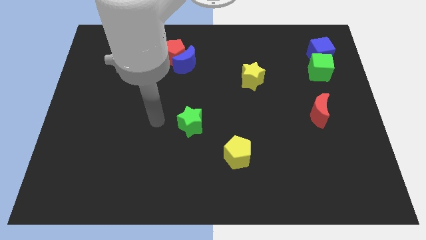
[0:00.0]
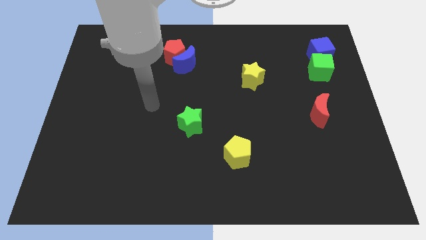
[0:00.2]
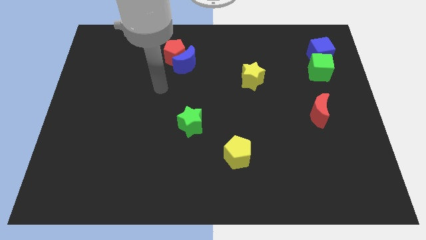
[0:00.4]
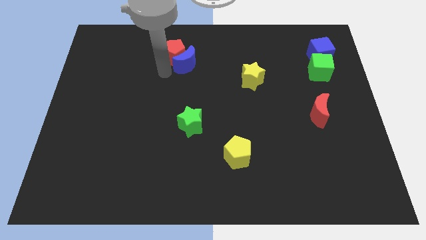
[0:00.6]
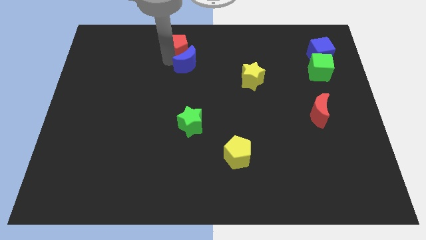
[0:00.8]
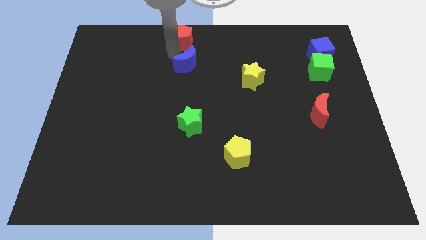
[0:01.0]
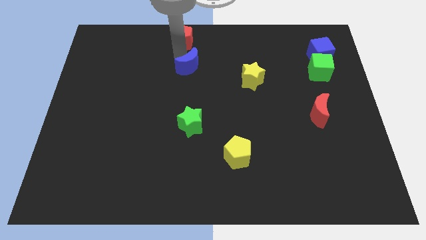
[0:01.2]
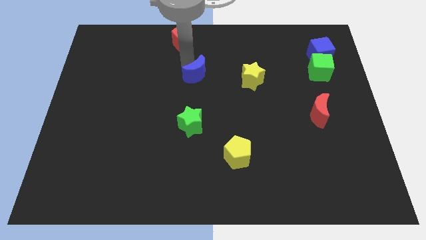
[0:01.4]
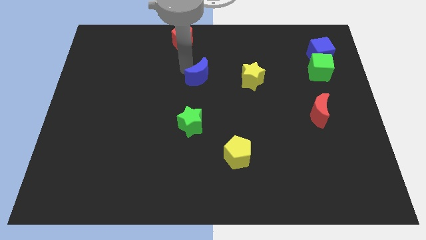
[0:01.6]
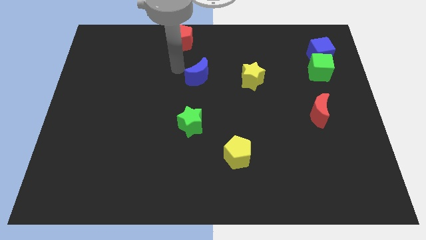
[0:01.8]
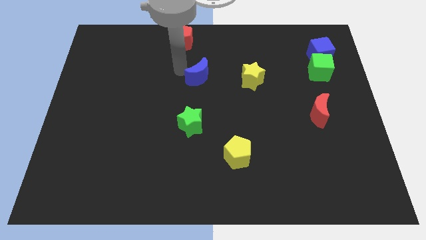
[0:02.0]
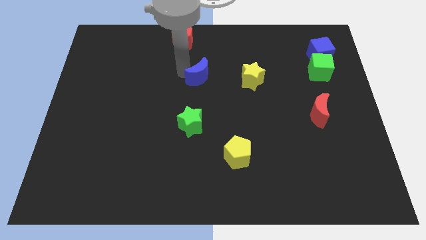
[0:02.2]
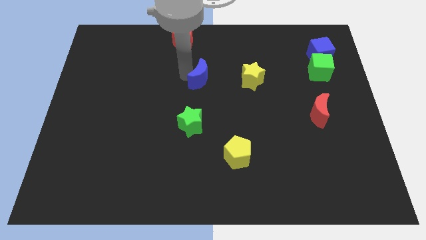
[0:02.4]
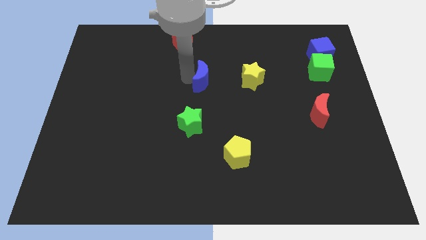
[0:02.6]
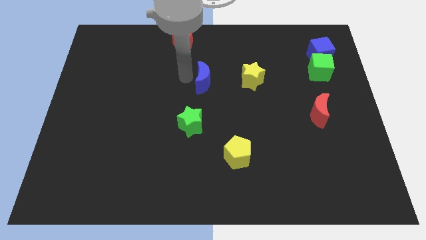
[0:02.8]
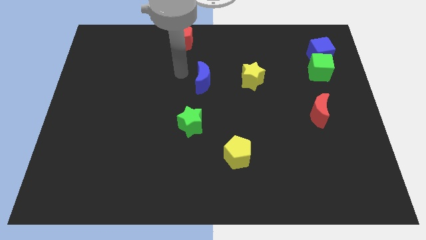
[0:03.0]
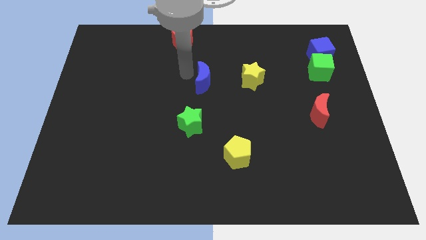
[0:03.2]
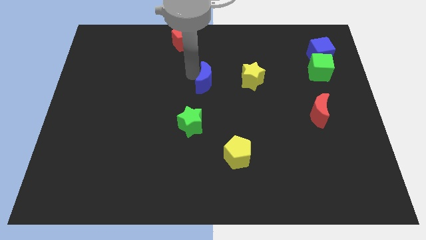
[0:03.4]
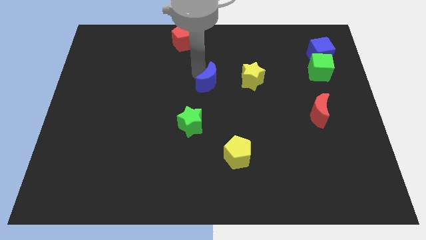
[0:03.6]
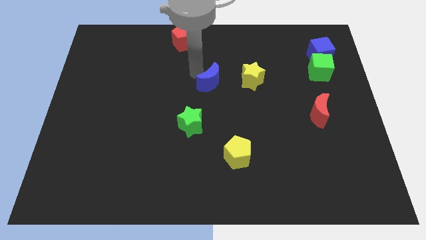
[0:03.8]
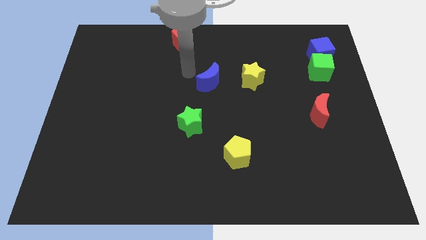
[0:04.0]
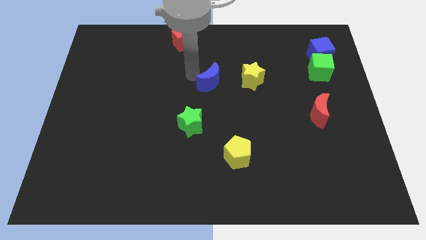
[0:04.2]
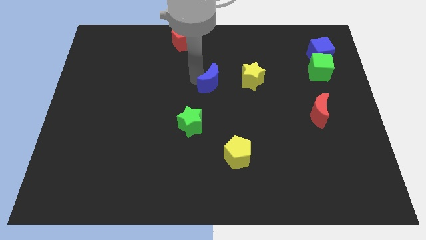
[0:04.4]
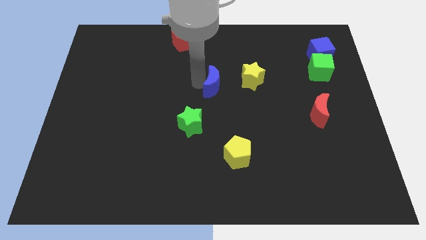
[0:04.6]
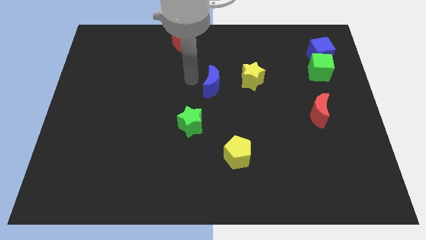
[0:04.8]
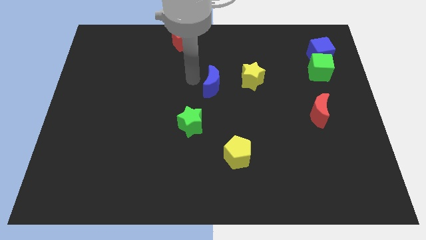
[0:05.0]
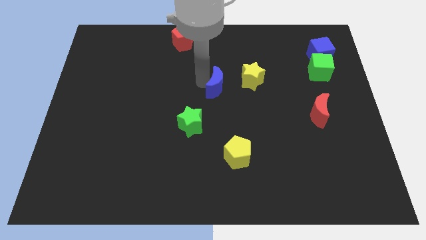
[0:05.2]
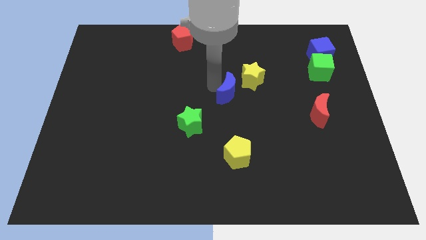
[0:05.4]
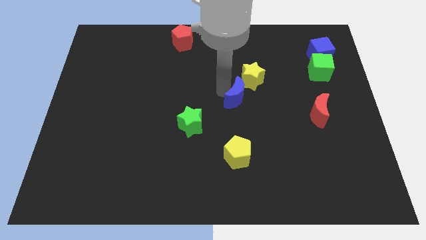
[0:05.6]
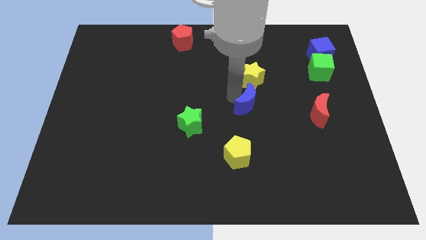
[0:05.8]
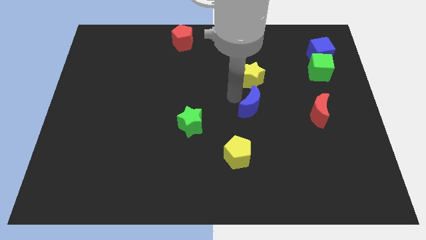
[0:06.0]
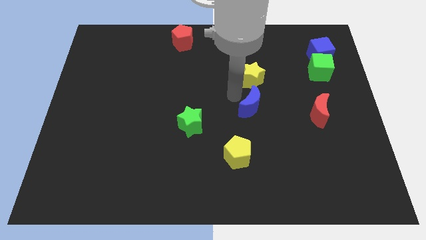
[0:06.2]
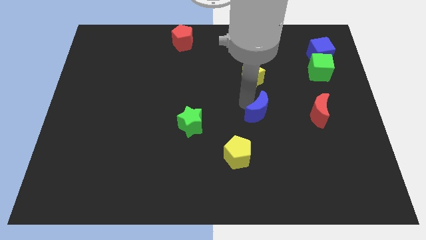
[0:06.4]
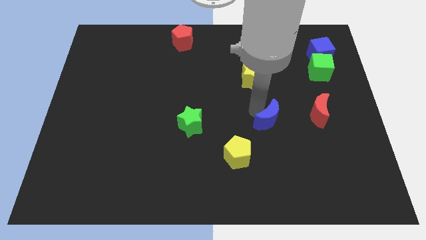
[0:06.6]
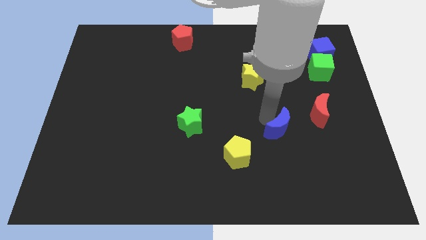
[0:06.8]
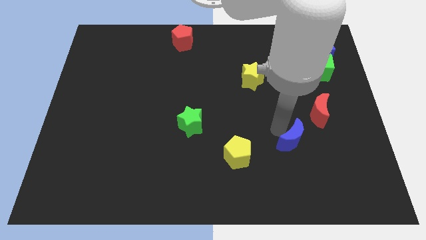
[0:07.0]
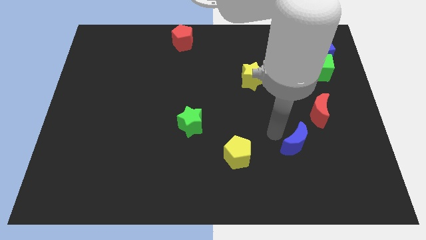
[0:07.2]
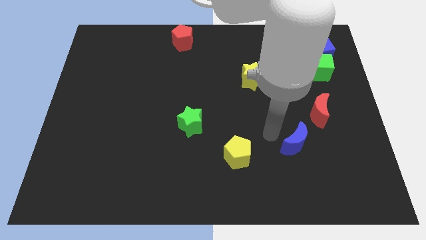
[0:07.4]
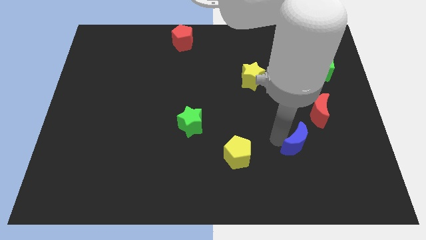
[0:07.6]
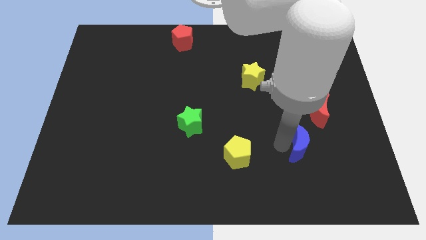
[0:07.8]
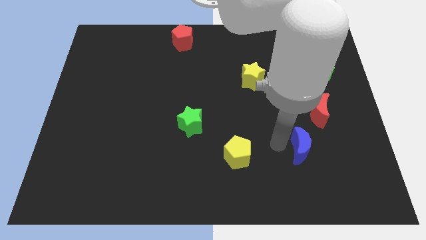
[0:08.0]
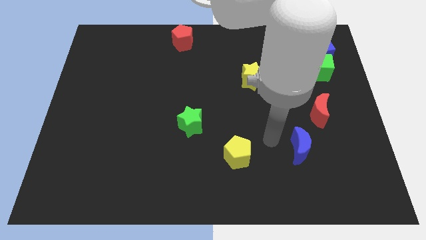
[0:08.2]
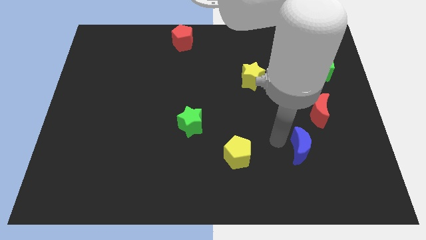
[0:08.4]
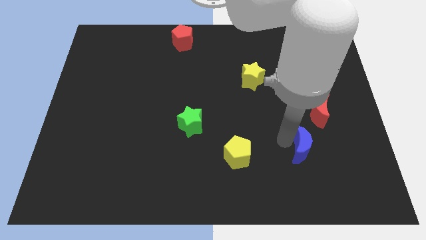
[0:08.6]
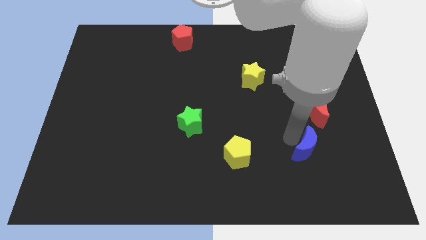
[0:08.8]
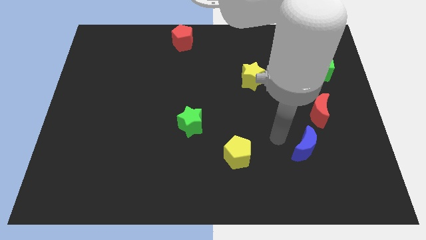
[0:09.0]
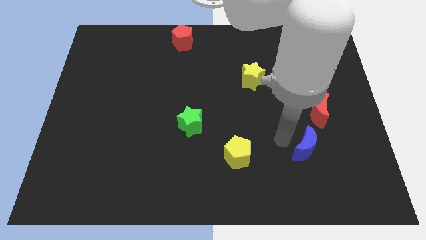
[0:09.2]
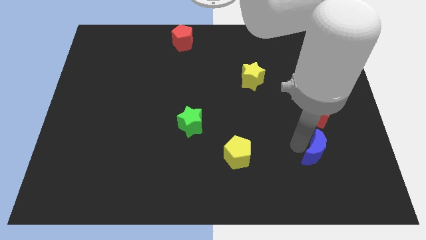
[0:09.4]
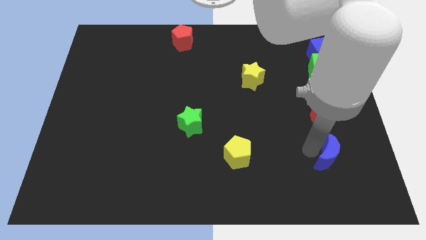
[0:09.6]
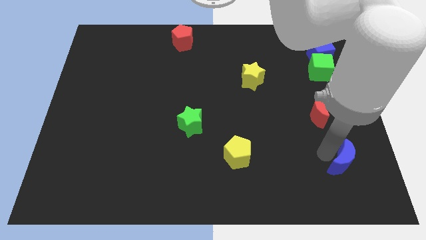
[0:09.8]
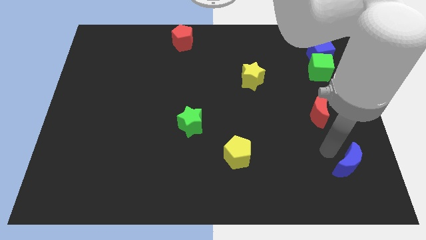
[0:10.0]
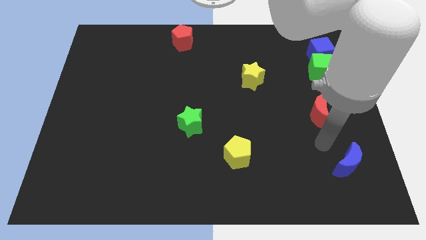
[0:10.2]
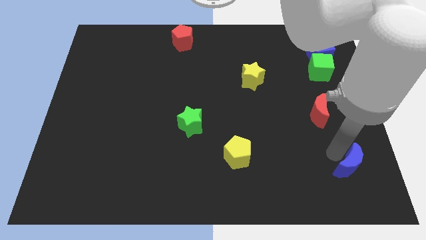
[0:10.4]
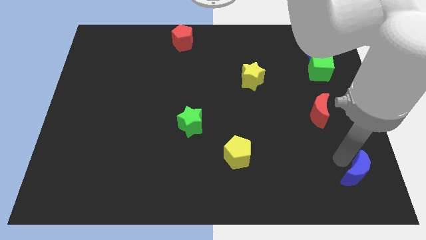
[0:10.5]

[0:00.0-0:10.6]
push the blue moon to the bottom right of the board

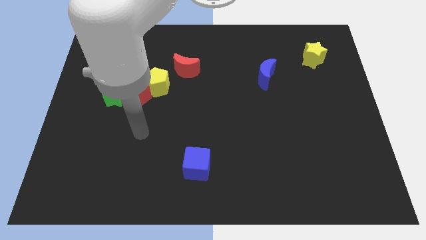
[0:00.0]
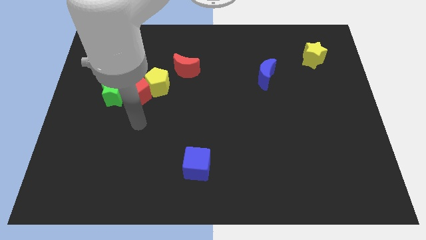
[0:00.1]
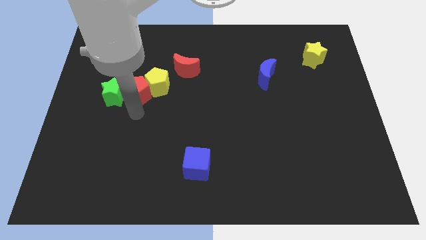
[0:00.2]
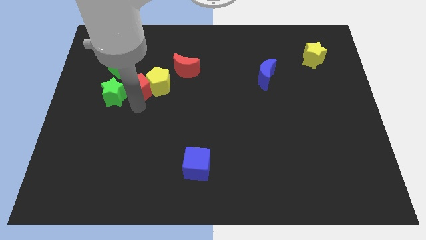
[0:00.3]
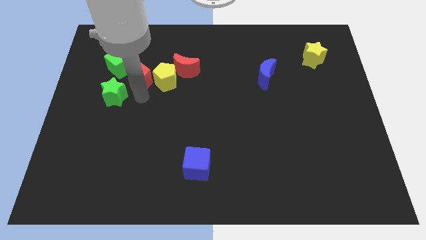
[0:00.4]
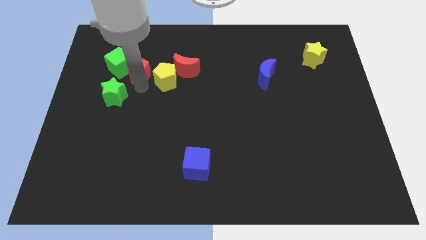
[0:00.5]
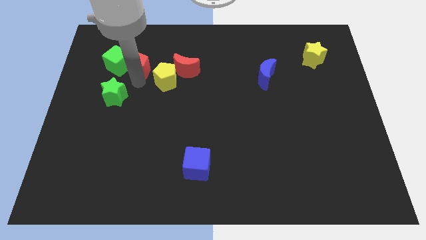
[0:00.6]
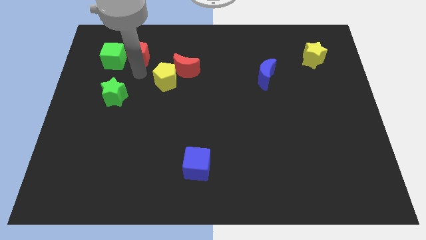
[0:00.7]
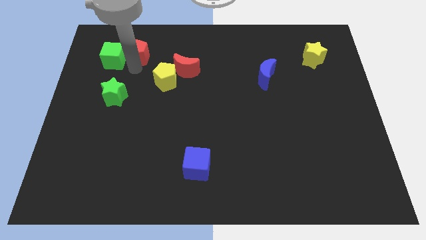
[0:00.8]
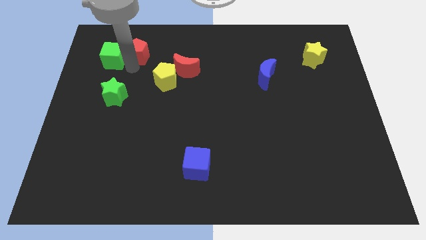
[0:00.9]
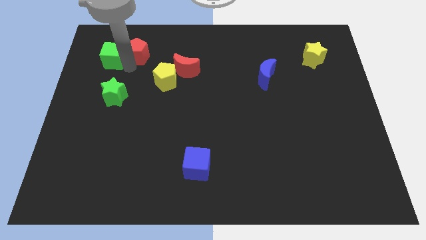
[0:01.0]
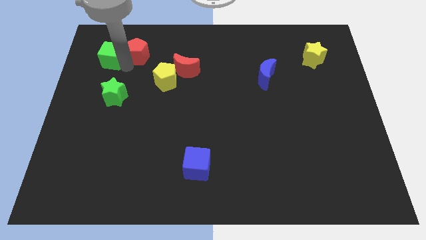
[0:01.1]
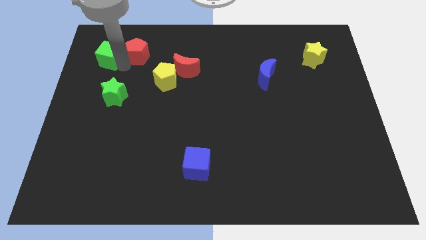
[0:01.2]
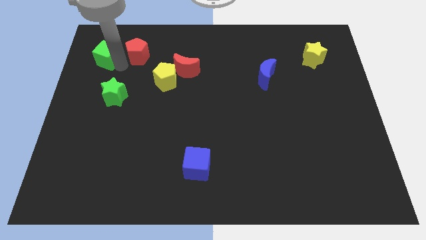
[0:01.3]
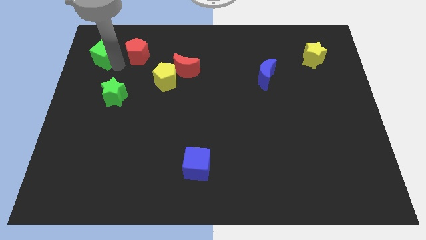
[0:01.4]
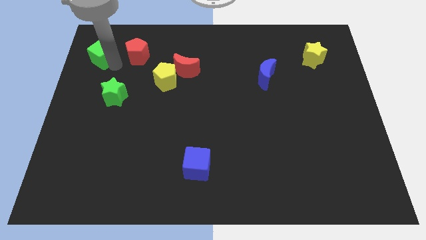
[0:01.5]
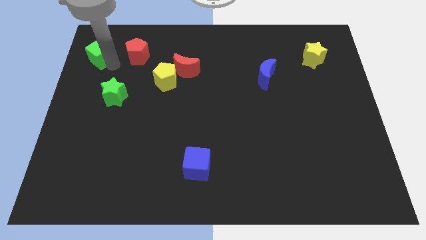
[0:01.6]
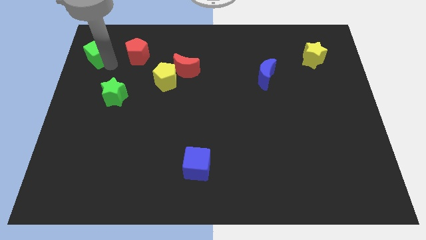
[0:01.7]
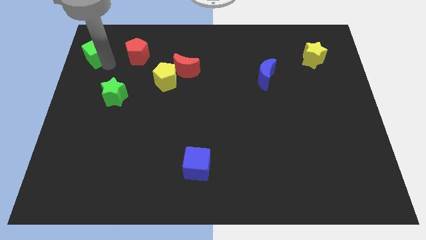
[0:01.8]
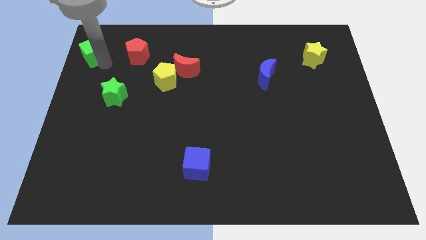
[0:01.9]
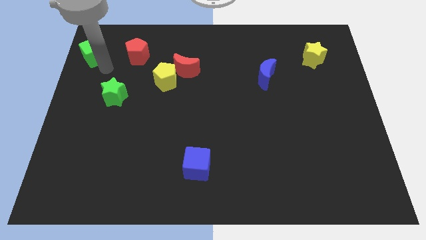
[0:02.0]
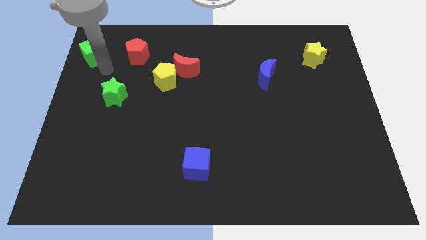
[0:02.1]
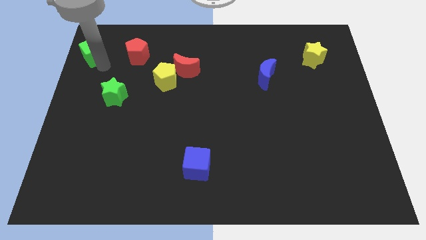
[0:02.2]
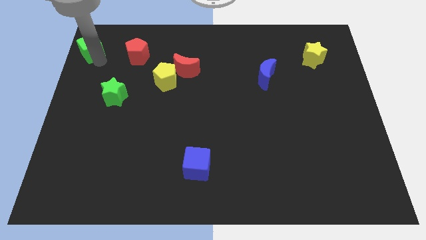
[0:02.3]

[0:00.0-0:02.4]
put the green cube to the top left of the board
